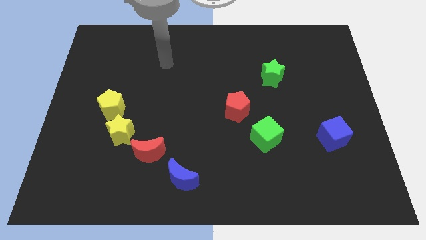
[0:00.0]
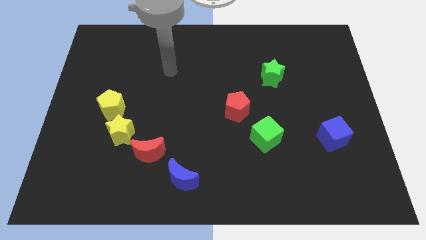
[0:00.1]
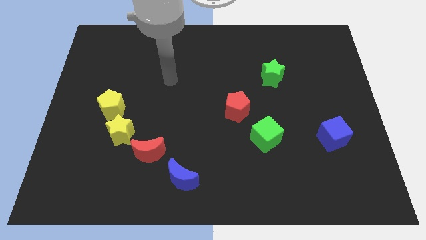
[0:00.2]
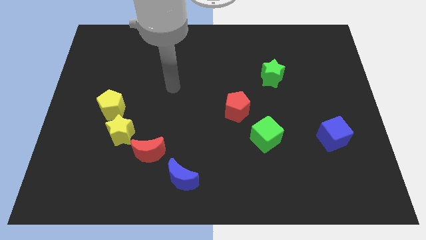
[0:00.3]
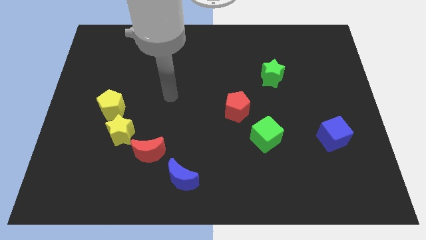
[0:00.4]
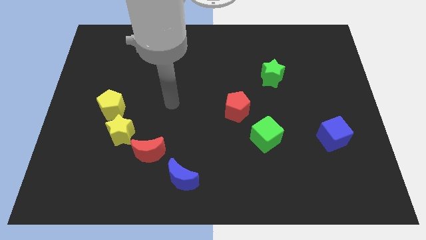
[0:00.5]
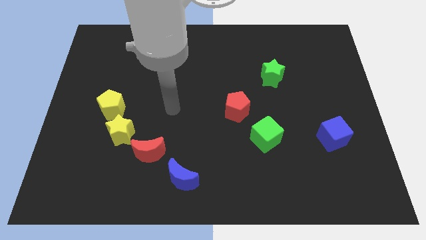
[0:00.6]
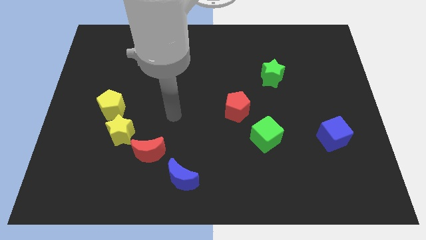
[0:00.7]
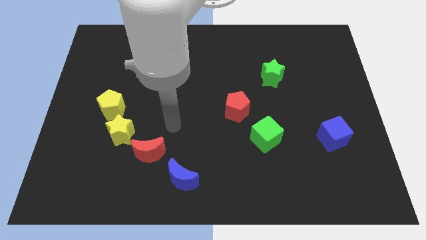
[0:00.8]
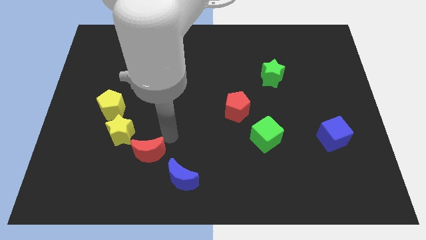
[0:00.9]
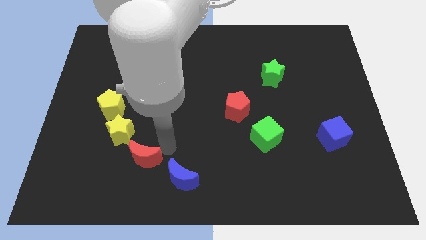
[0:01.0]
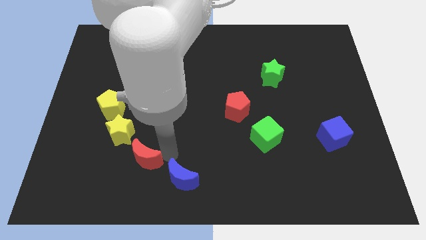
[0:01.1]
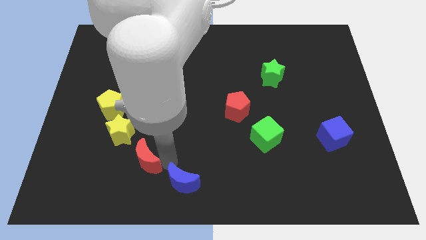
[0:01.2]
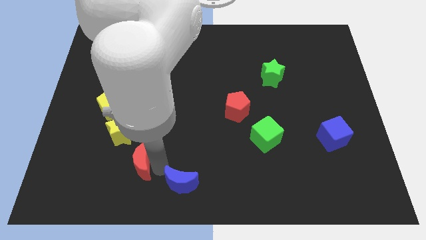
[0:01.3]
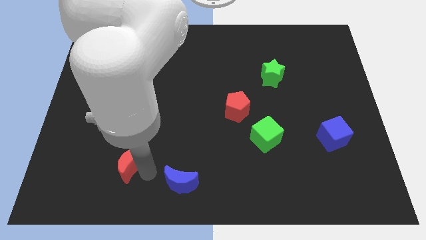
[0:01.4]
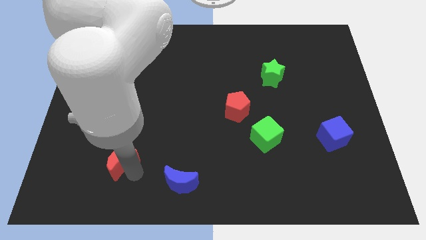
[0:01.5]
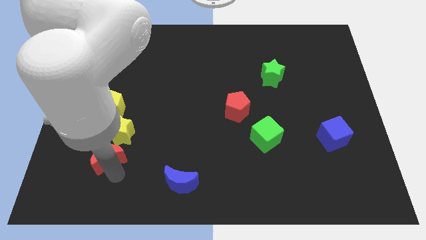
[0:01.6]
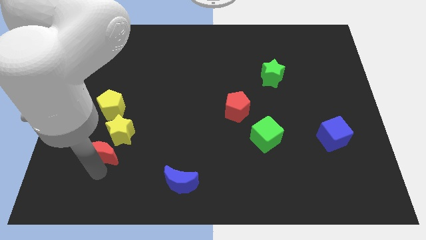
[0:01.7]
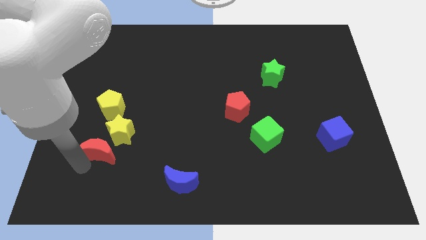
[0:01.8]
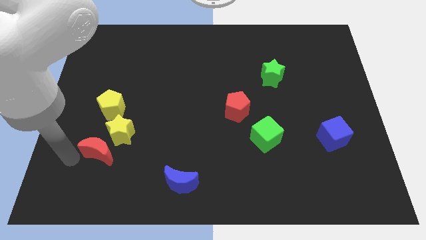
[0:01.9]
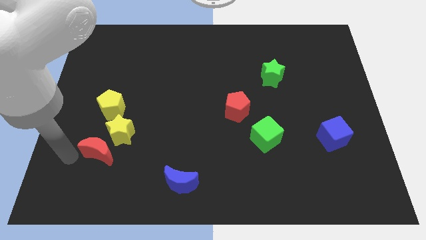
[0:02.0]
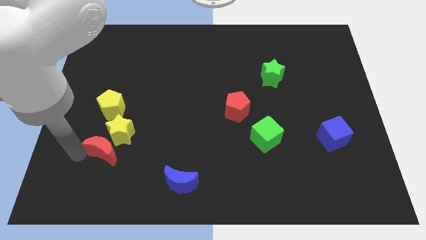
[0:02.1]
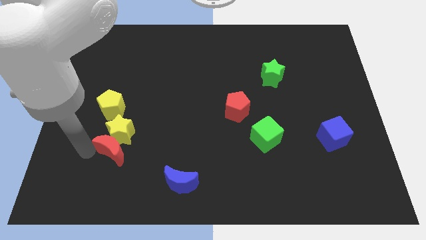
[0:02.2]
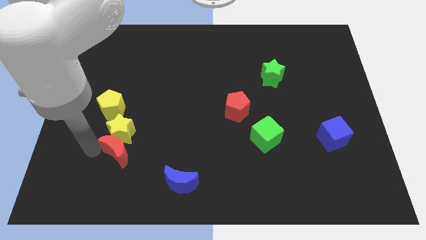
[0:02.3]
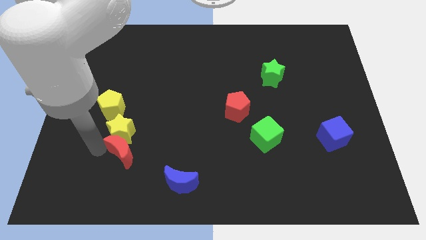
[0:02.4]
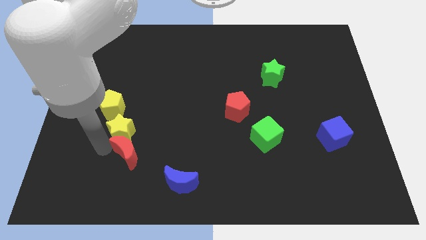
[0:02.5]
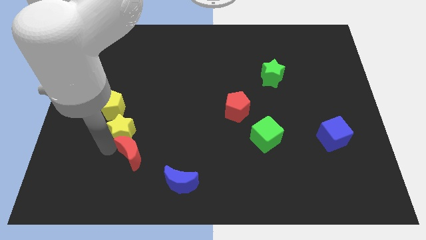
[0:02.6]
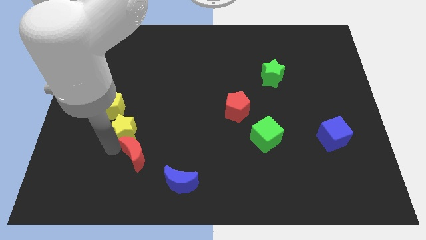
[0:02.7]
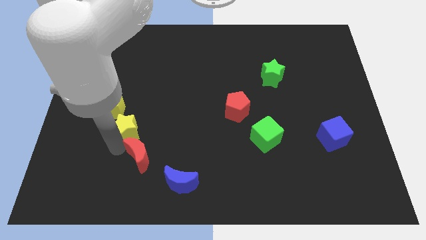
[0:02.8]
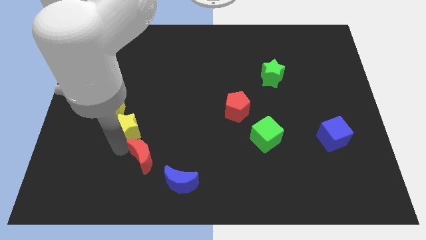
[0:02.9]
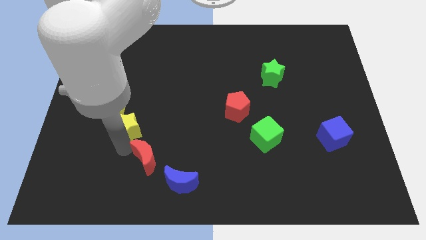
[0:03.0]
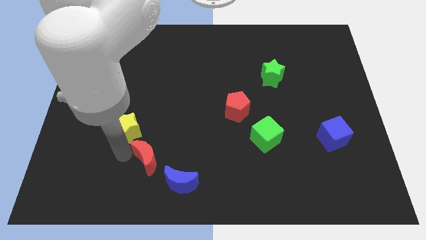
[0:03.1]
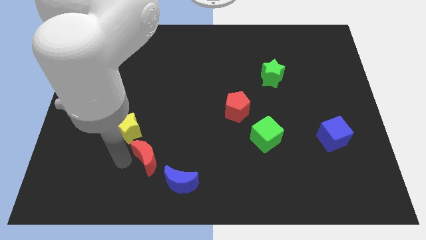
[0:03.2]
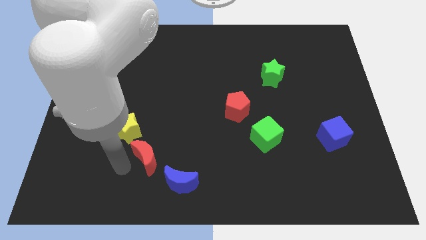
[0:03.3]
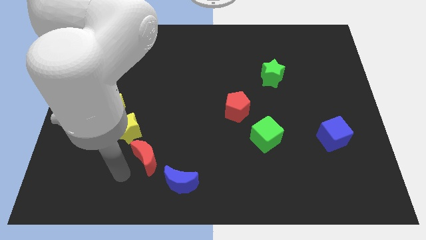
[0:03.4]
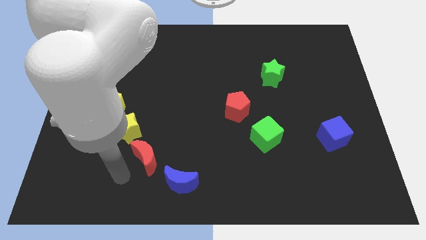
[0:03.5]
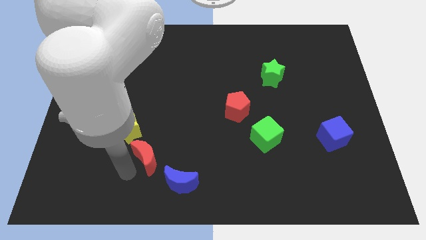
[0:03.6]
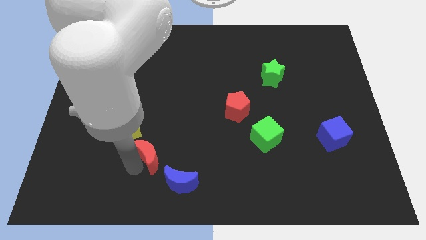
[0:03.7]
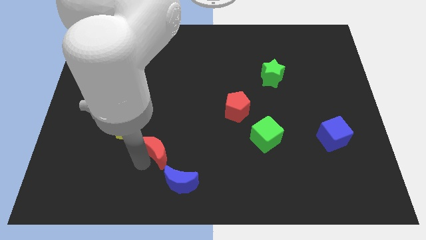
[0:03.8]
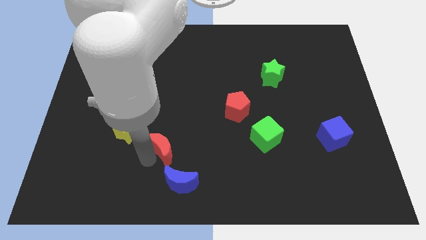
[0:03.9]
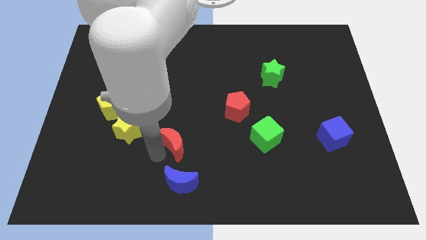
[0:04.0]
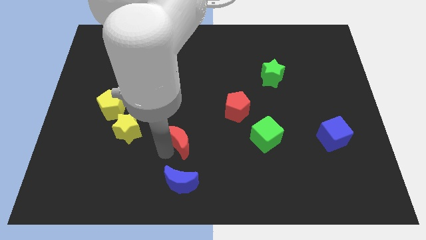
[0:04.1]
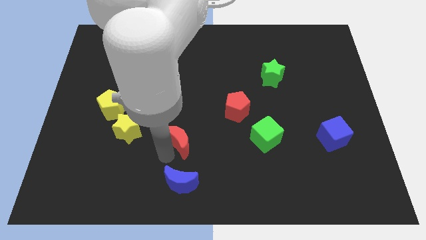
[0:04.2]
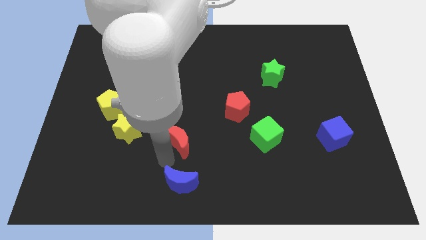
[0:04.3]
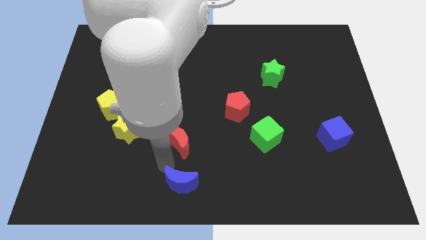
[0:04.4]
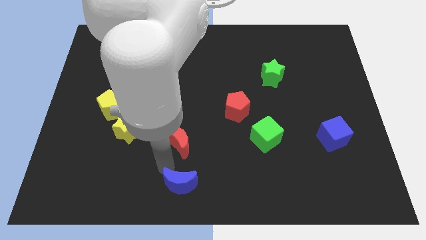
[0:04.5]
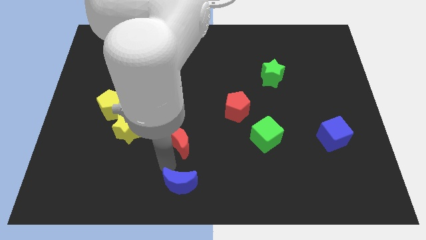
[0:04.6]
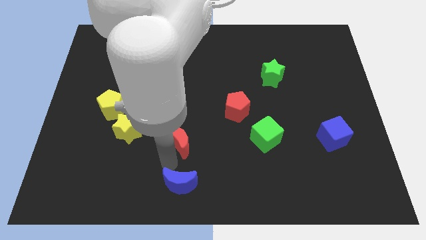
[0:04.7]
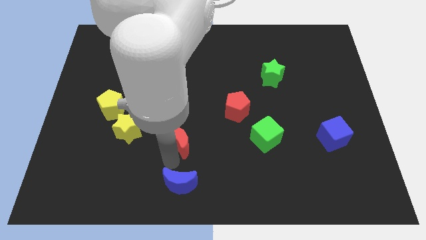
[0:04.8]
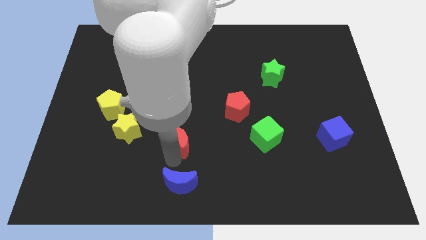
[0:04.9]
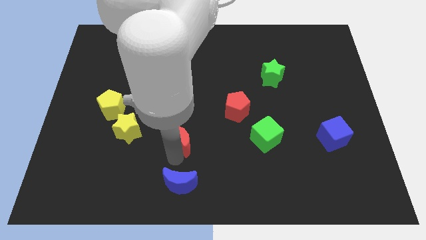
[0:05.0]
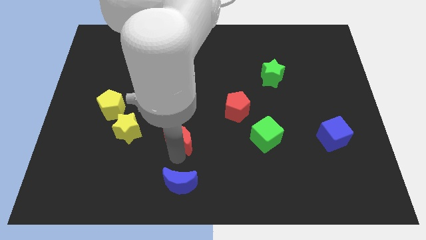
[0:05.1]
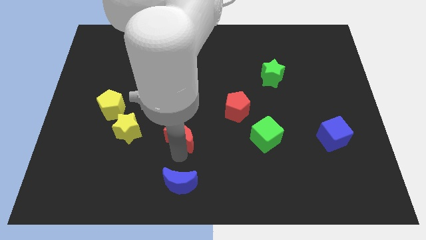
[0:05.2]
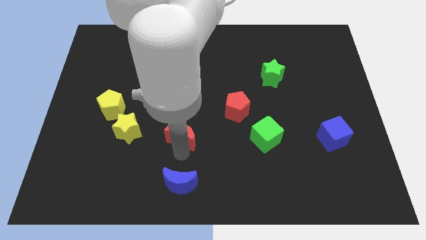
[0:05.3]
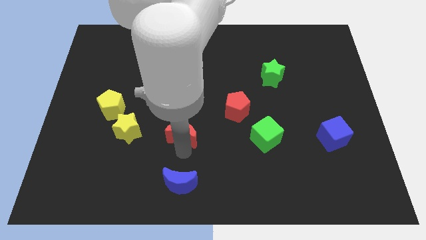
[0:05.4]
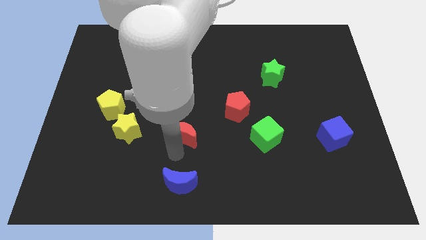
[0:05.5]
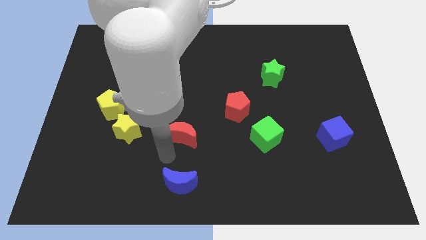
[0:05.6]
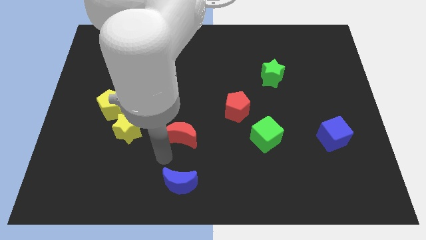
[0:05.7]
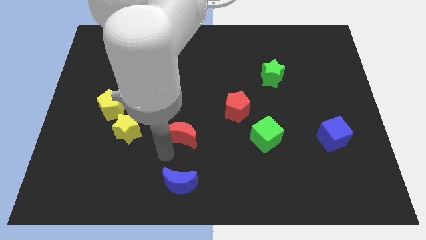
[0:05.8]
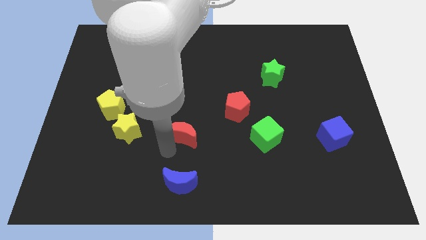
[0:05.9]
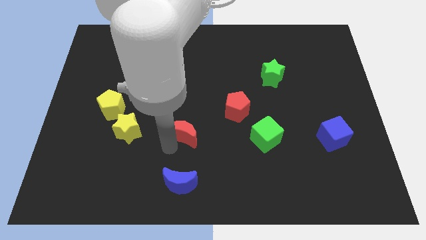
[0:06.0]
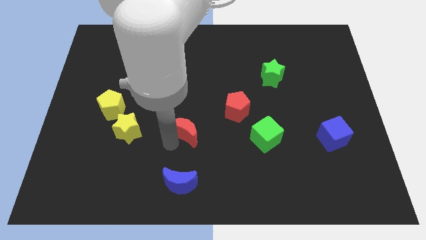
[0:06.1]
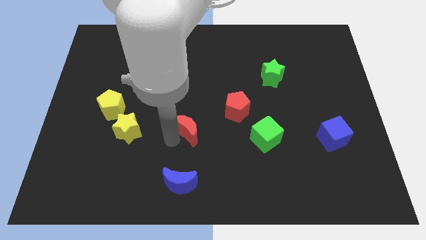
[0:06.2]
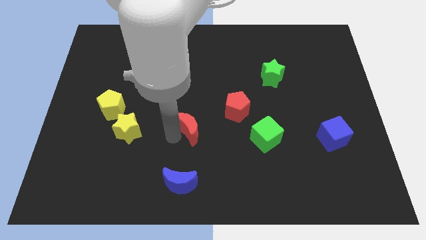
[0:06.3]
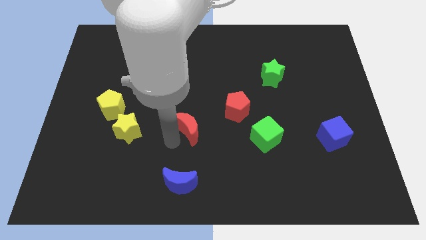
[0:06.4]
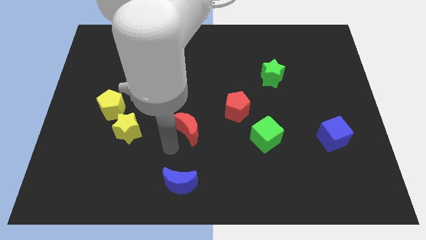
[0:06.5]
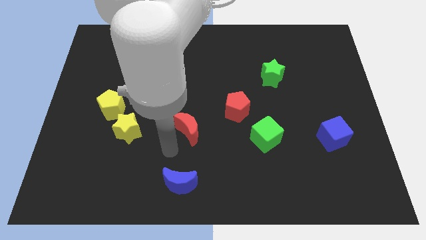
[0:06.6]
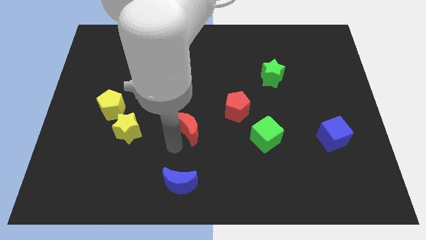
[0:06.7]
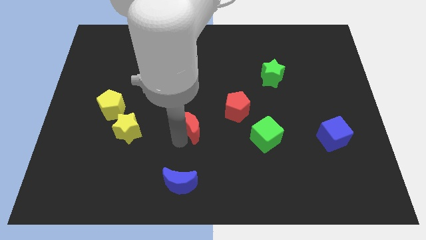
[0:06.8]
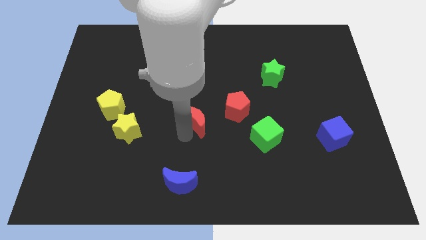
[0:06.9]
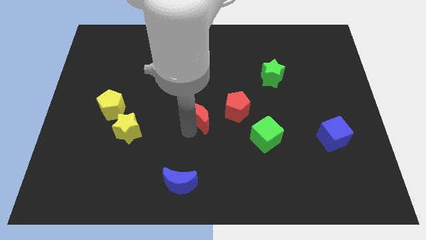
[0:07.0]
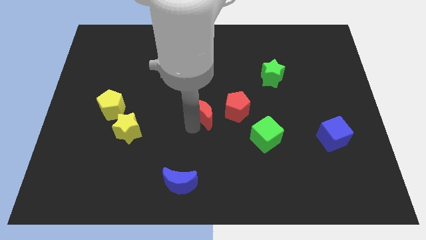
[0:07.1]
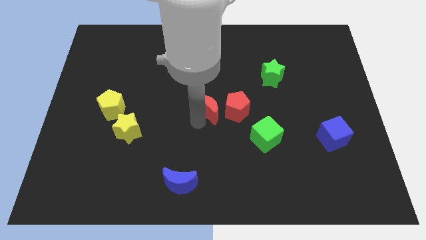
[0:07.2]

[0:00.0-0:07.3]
push the red moon diagonally up and to the left of the red pentagon

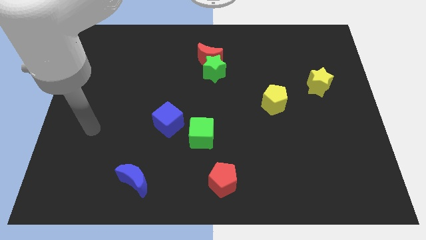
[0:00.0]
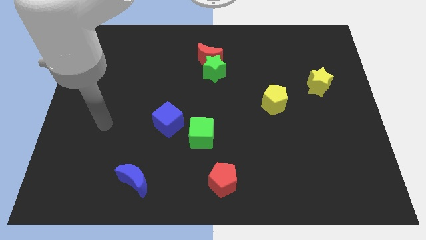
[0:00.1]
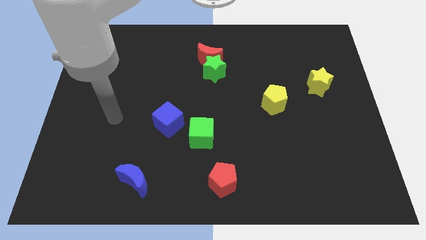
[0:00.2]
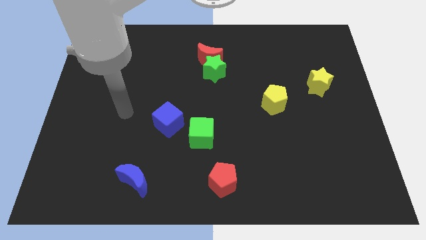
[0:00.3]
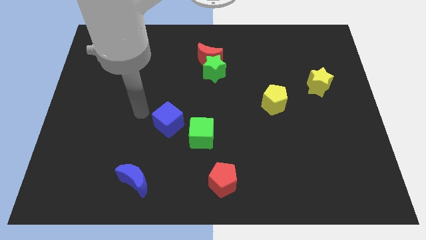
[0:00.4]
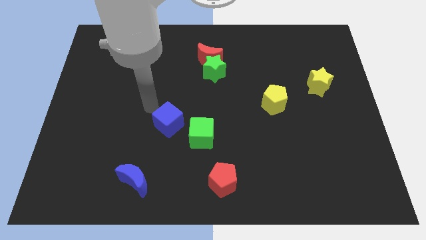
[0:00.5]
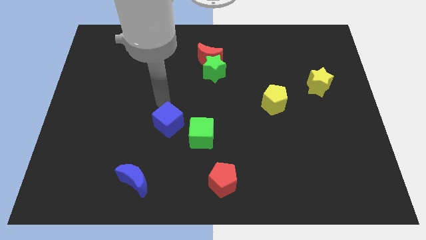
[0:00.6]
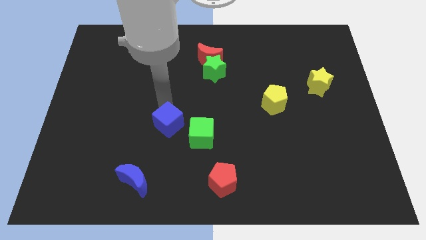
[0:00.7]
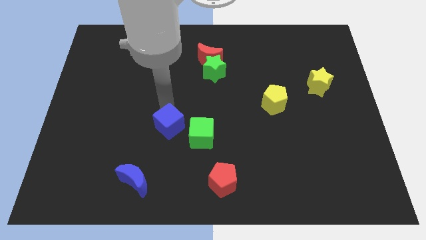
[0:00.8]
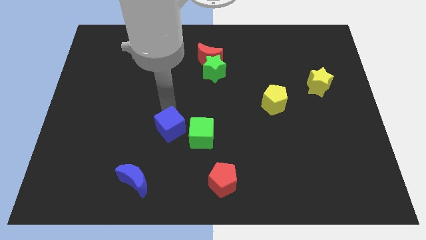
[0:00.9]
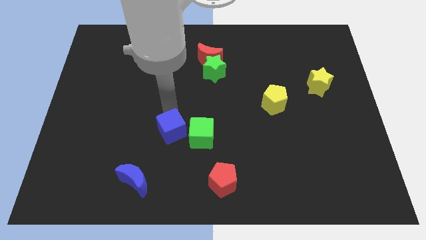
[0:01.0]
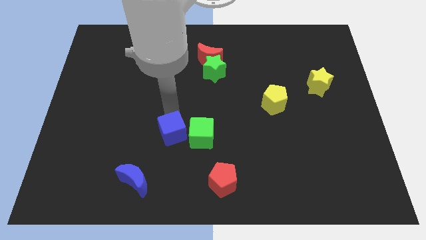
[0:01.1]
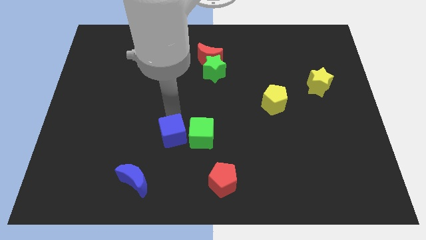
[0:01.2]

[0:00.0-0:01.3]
slide the blue cube to the bottom left of the green cube
